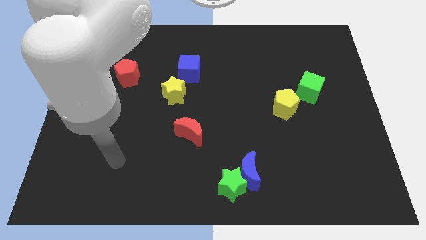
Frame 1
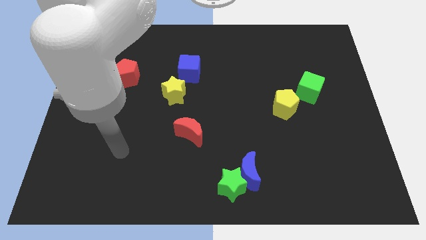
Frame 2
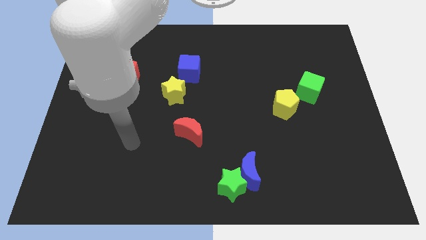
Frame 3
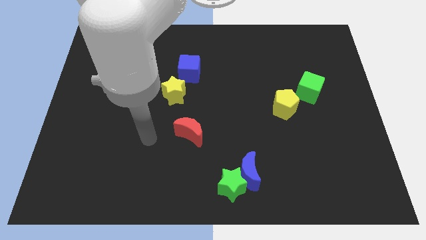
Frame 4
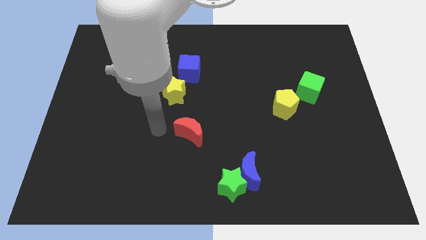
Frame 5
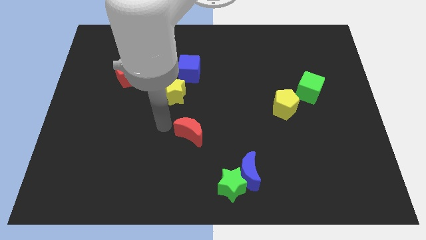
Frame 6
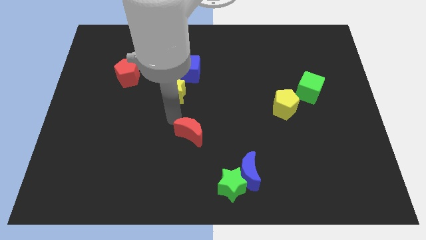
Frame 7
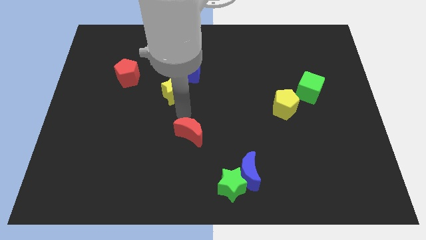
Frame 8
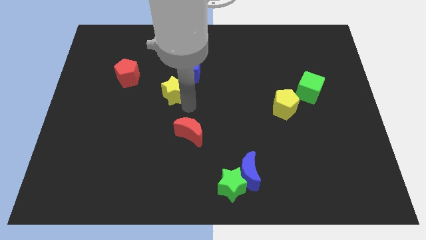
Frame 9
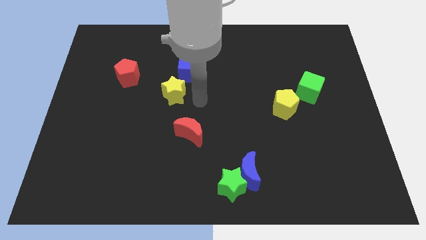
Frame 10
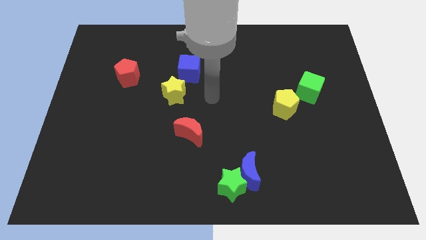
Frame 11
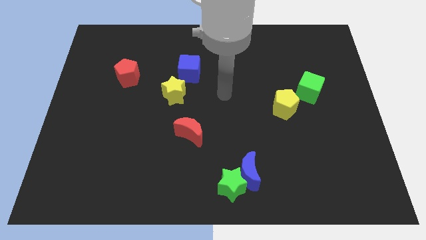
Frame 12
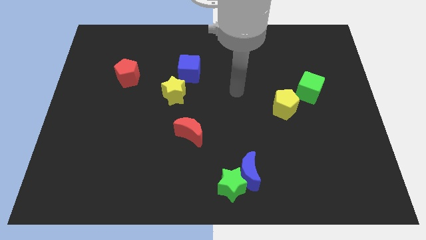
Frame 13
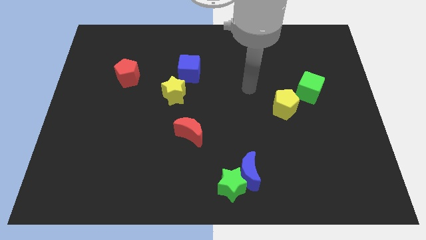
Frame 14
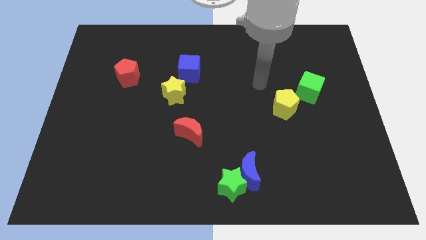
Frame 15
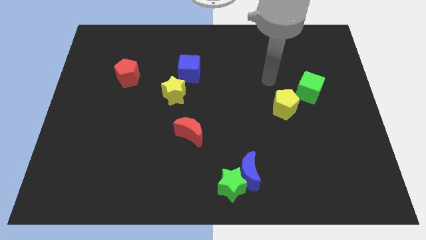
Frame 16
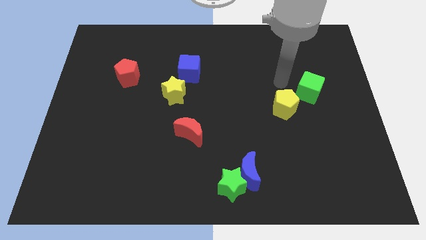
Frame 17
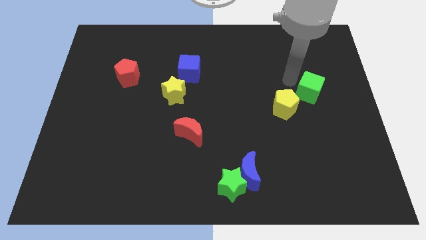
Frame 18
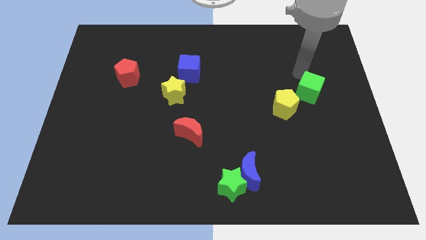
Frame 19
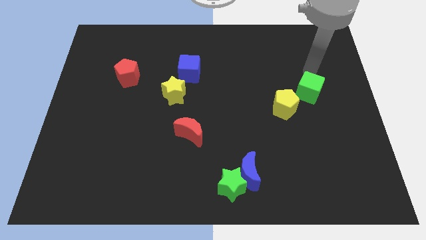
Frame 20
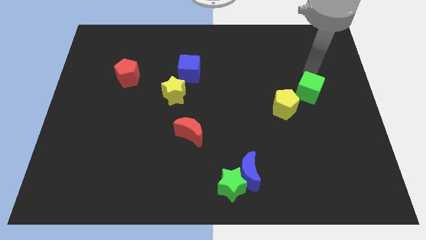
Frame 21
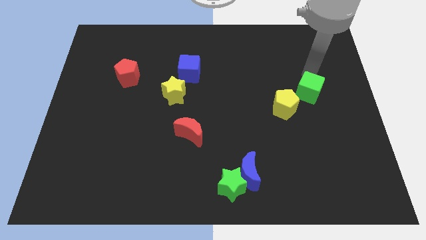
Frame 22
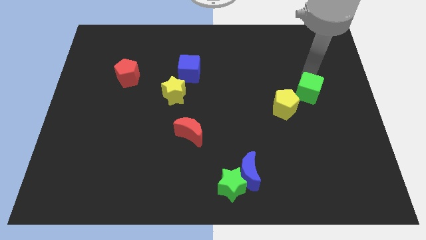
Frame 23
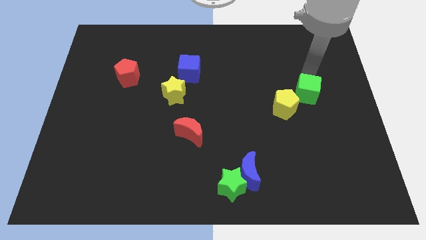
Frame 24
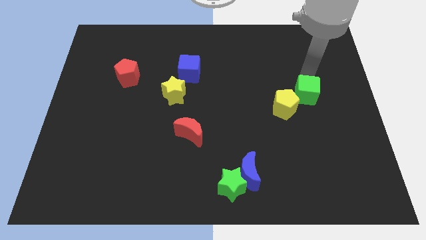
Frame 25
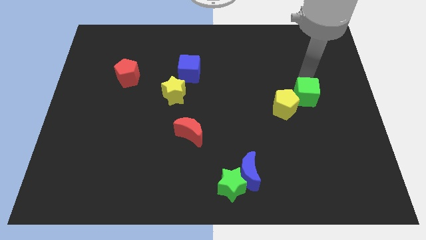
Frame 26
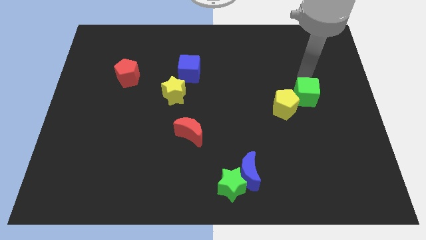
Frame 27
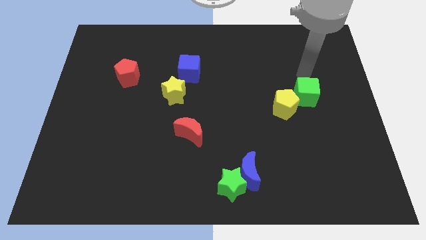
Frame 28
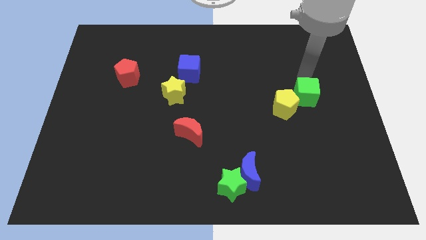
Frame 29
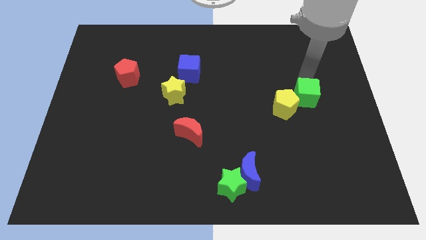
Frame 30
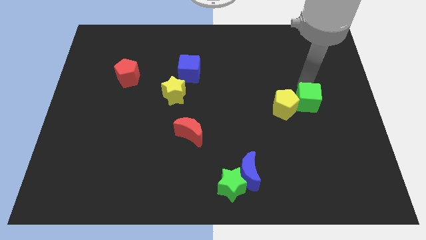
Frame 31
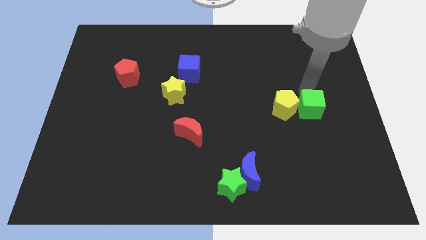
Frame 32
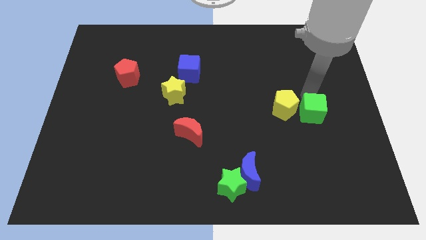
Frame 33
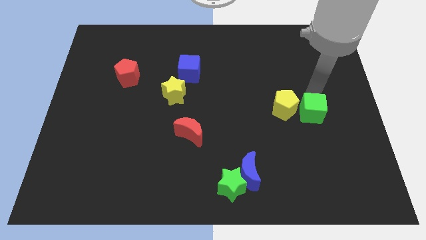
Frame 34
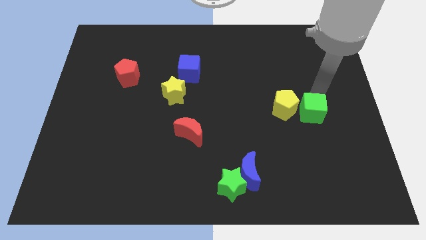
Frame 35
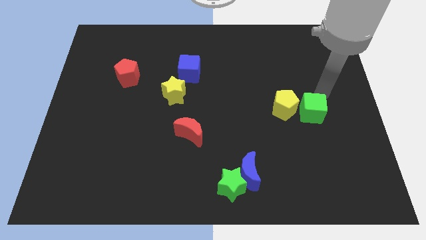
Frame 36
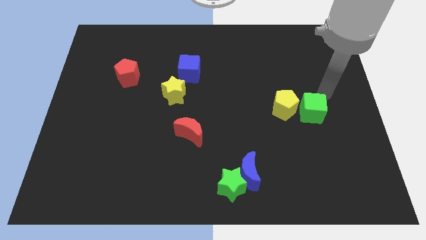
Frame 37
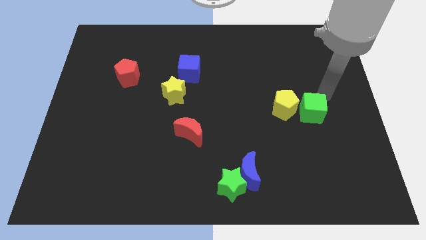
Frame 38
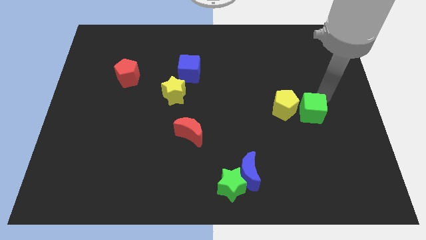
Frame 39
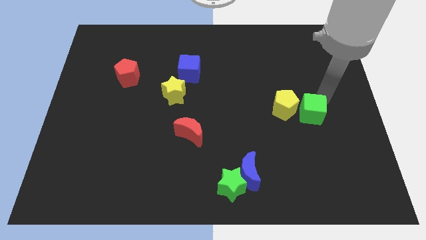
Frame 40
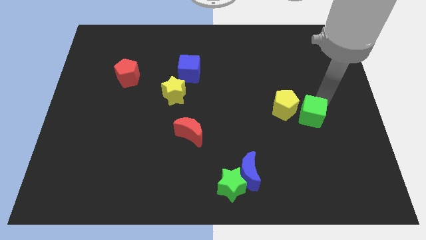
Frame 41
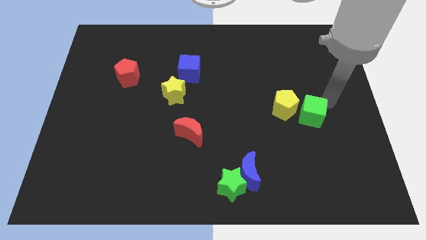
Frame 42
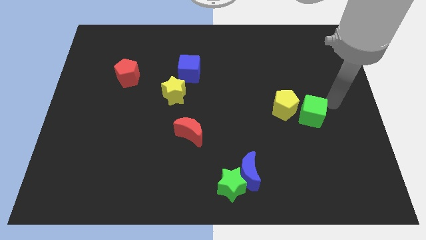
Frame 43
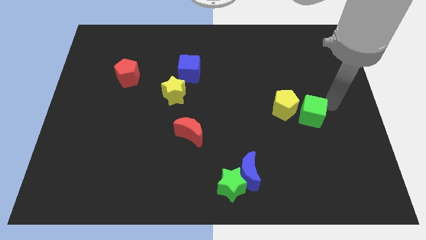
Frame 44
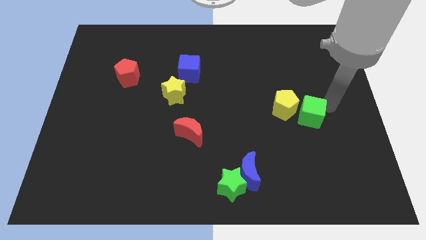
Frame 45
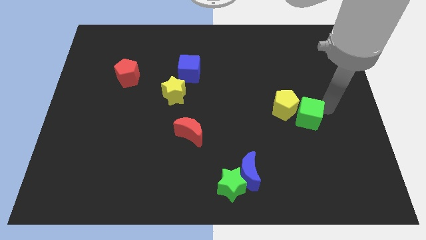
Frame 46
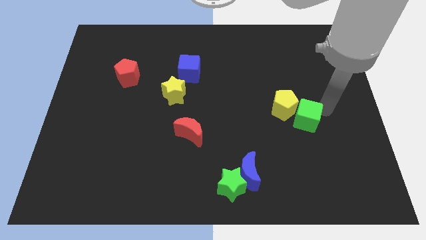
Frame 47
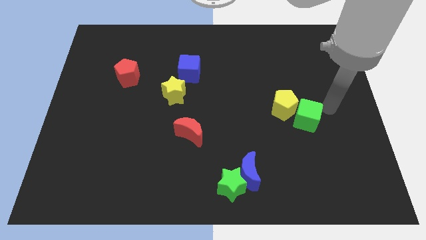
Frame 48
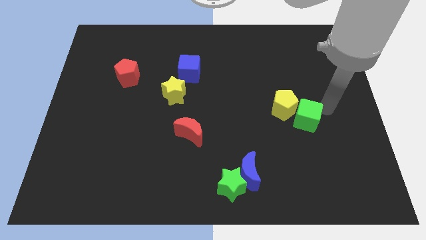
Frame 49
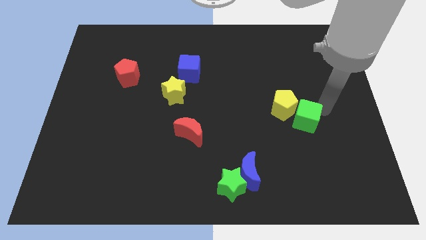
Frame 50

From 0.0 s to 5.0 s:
push the green cube down and then to the left slightly

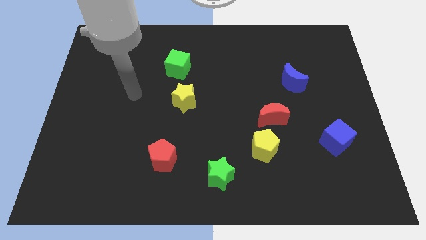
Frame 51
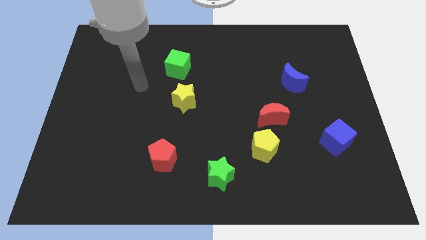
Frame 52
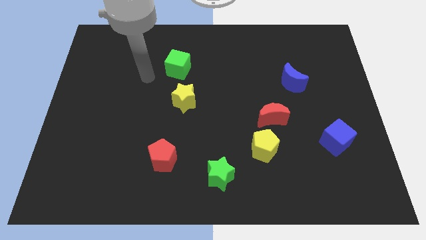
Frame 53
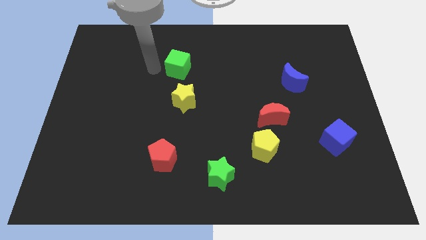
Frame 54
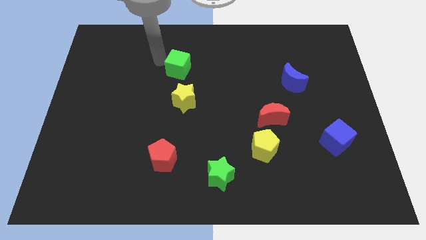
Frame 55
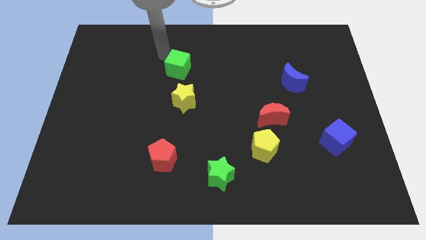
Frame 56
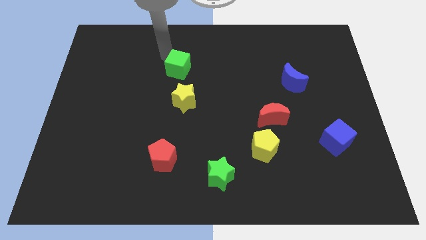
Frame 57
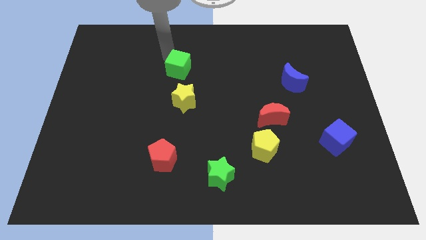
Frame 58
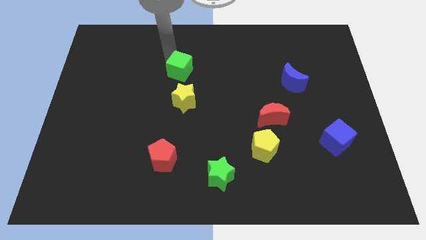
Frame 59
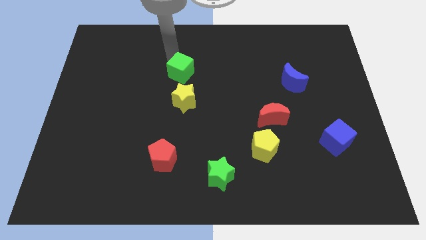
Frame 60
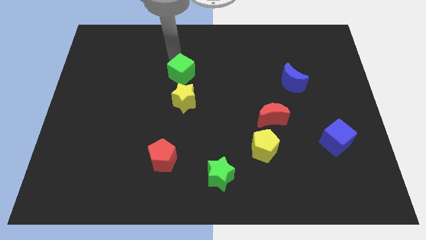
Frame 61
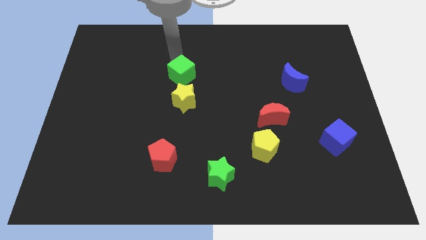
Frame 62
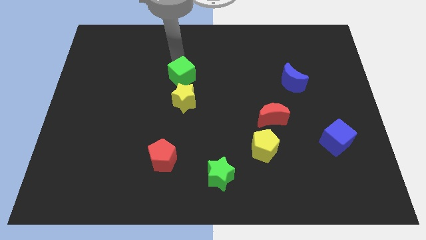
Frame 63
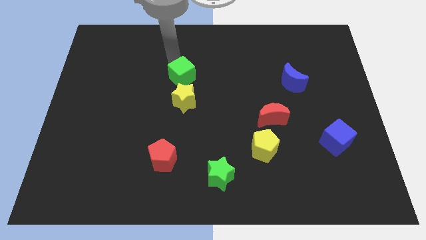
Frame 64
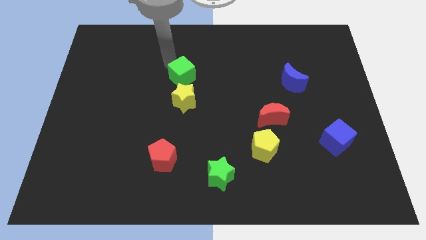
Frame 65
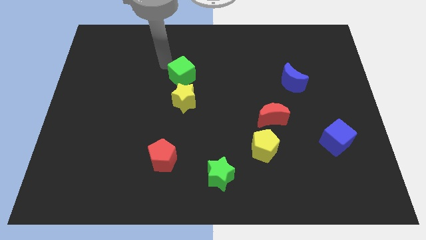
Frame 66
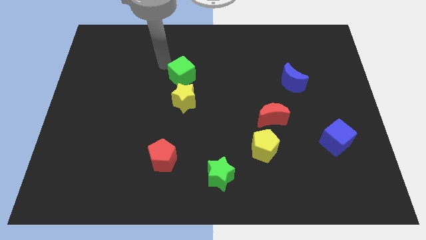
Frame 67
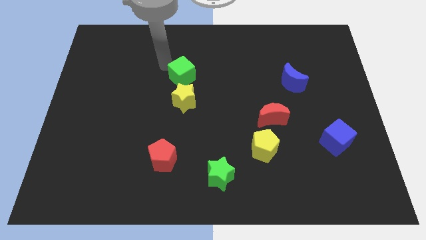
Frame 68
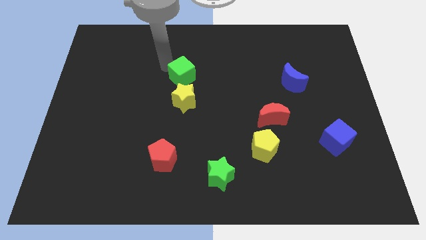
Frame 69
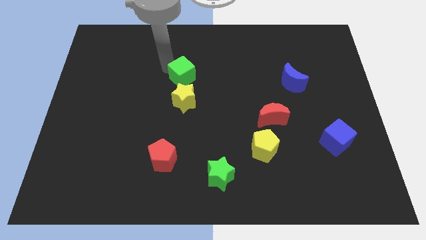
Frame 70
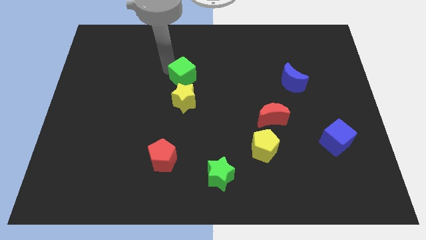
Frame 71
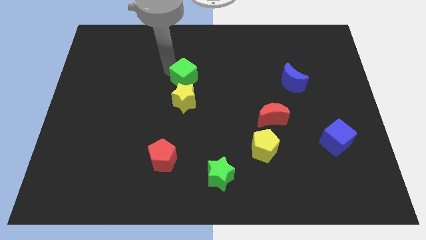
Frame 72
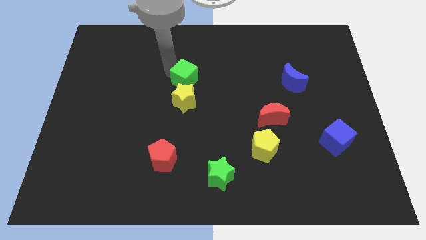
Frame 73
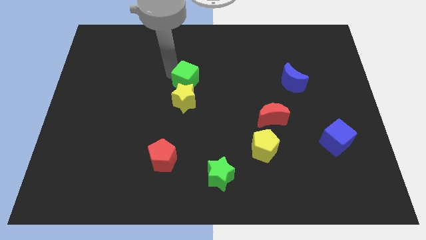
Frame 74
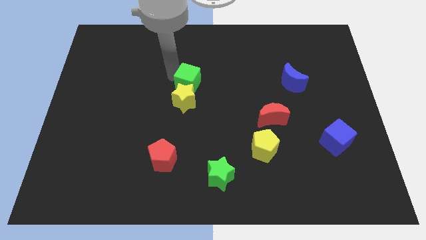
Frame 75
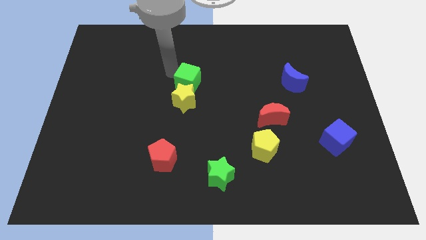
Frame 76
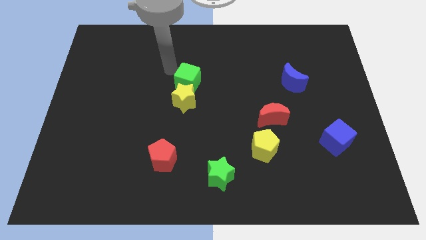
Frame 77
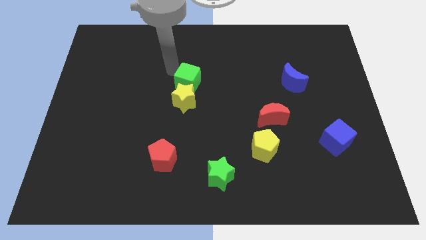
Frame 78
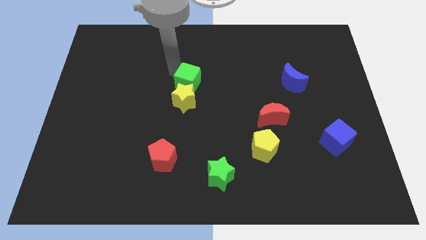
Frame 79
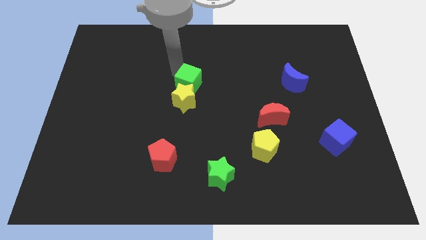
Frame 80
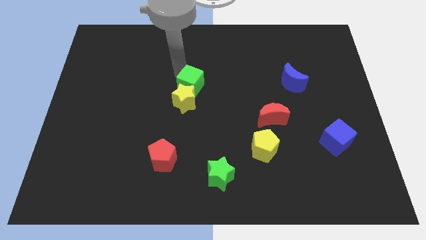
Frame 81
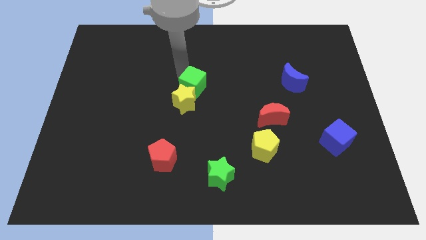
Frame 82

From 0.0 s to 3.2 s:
push the green cube downwards and to the right diagonally somewhat
